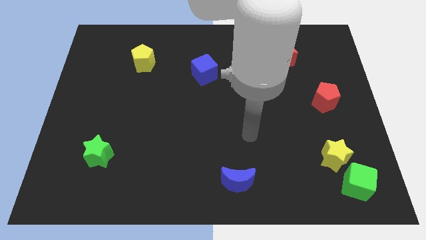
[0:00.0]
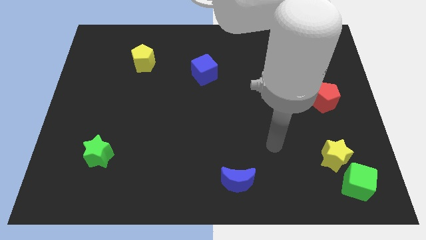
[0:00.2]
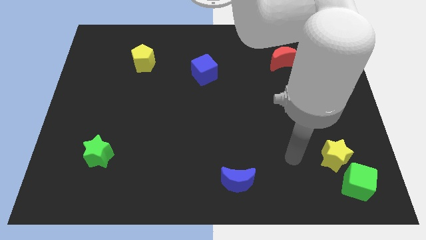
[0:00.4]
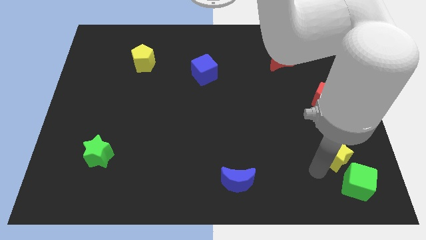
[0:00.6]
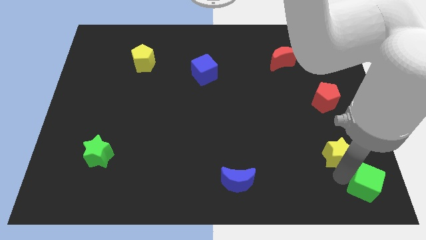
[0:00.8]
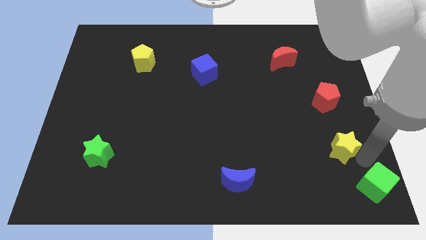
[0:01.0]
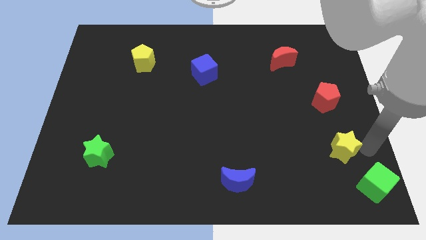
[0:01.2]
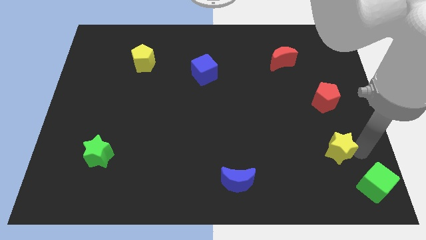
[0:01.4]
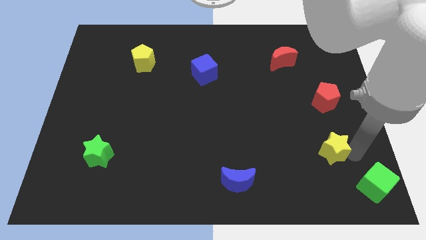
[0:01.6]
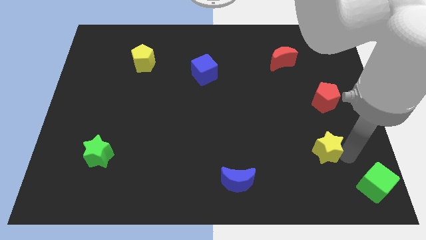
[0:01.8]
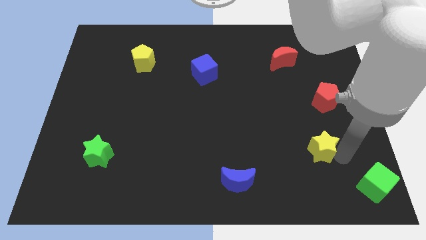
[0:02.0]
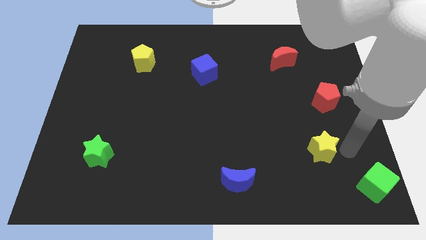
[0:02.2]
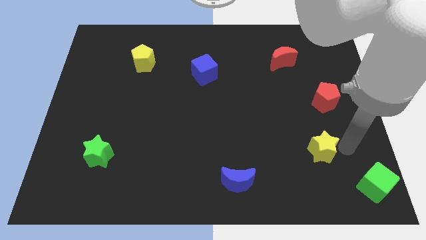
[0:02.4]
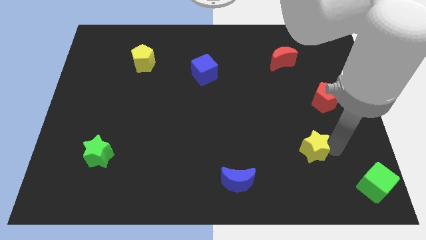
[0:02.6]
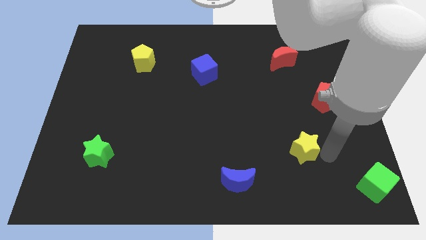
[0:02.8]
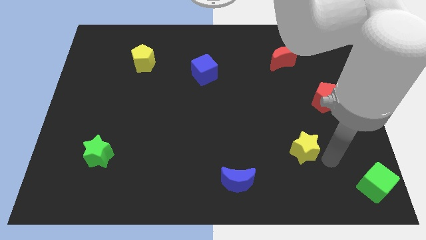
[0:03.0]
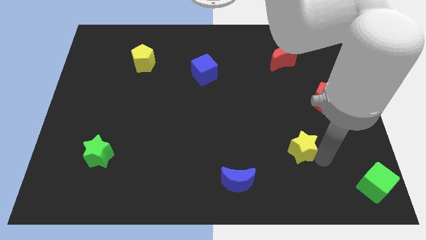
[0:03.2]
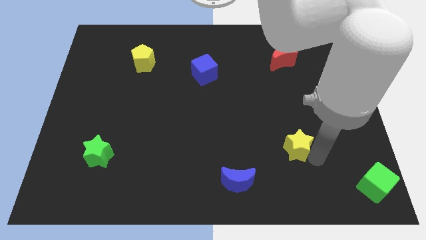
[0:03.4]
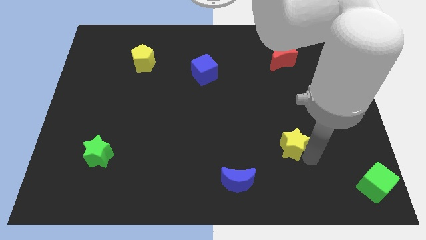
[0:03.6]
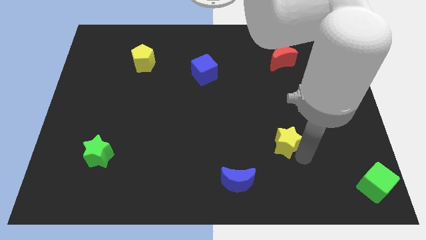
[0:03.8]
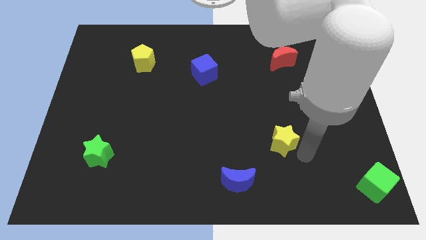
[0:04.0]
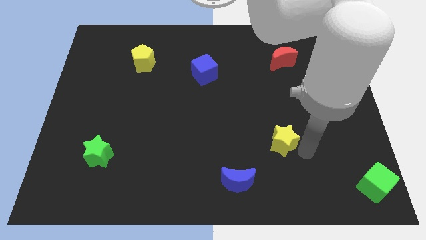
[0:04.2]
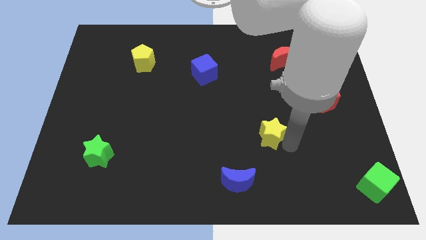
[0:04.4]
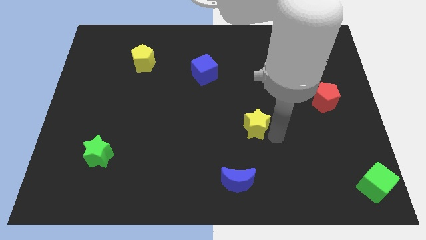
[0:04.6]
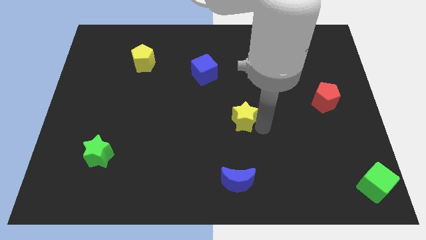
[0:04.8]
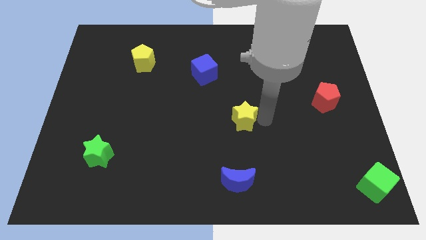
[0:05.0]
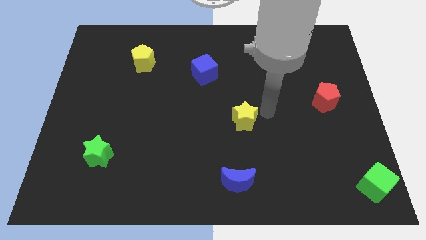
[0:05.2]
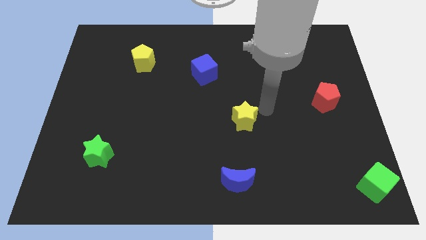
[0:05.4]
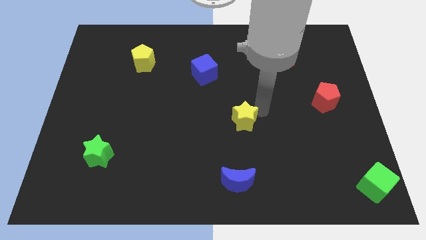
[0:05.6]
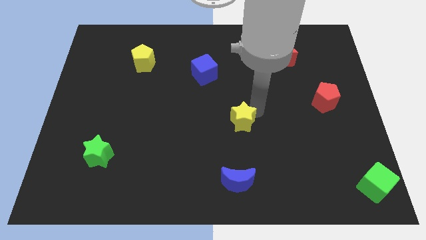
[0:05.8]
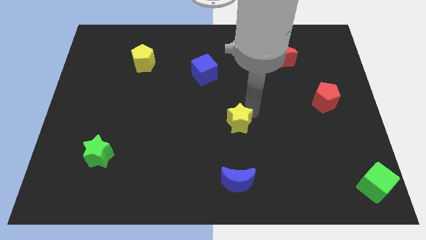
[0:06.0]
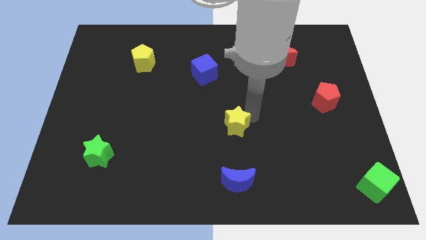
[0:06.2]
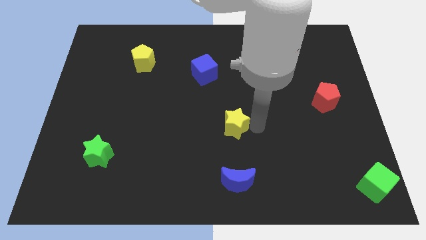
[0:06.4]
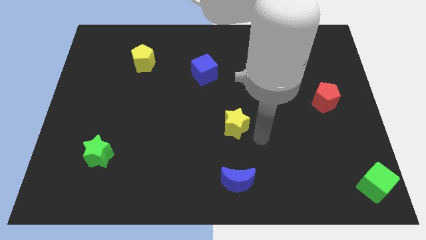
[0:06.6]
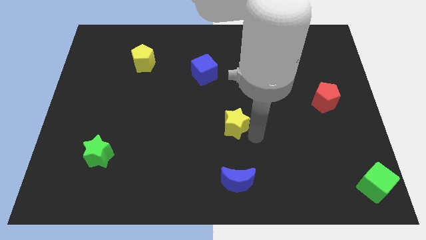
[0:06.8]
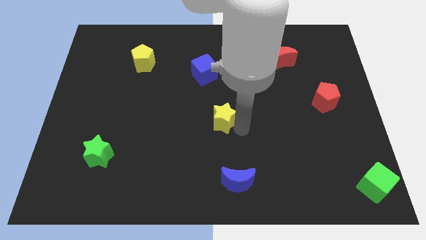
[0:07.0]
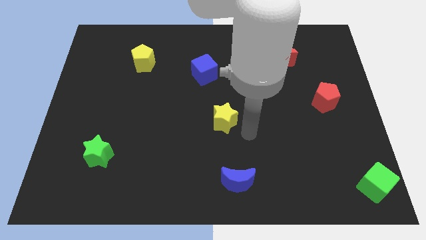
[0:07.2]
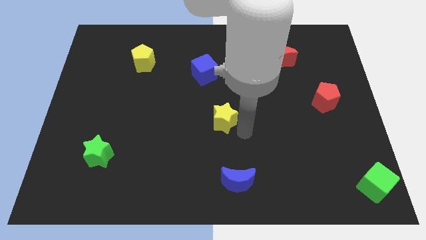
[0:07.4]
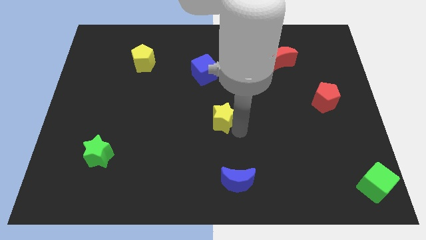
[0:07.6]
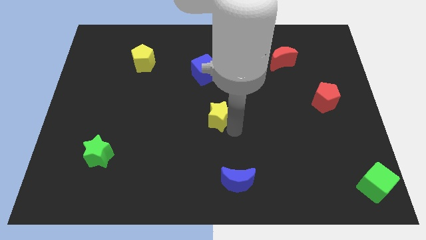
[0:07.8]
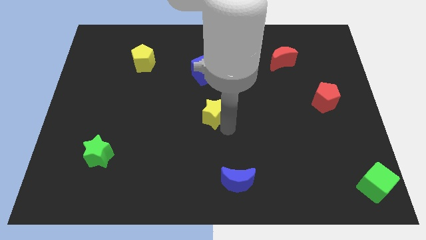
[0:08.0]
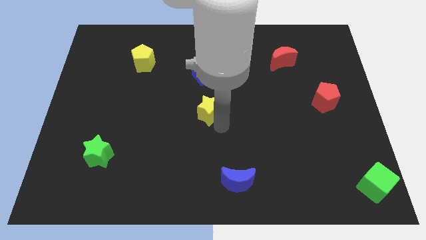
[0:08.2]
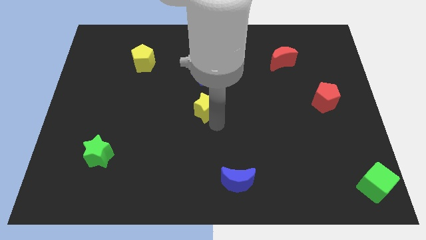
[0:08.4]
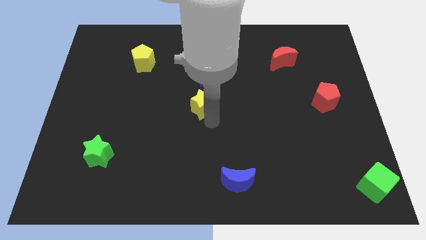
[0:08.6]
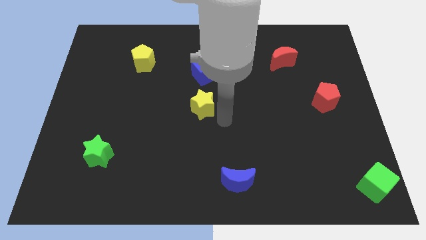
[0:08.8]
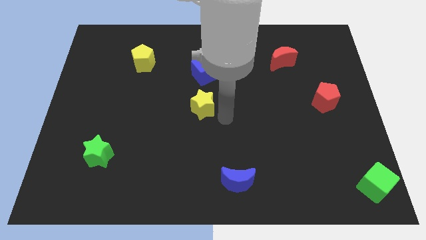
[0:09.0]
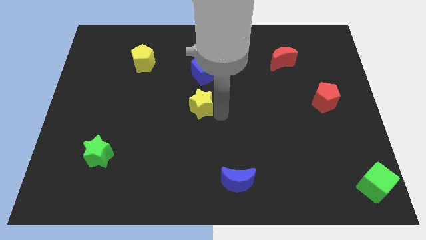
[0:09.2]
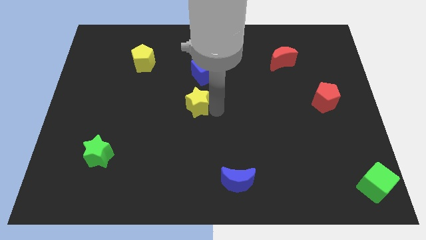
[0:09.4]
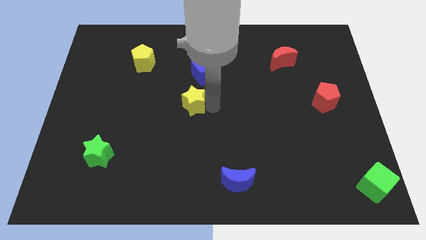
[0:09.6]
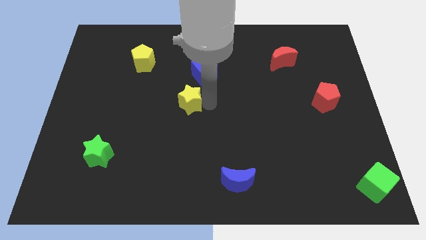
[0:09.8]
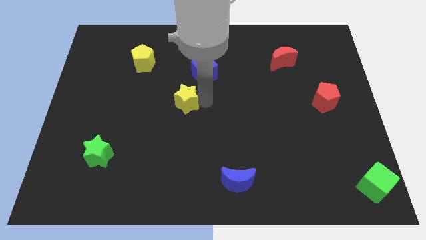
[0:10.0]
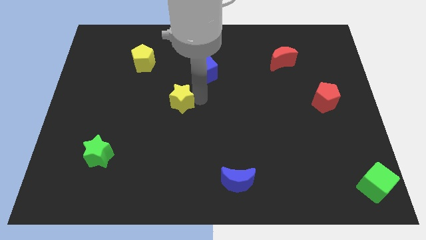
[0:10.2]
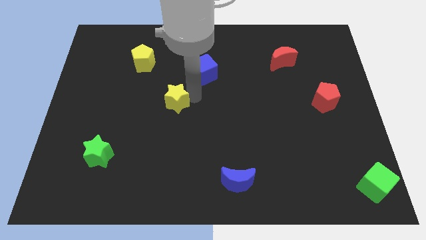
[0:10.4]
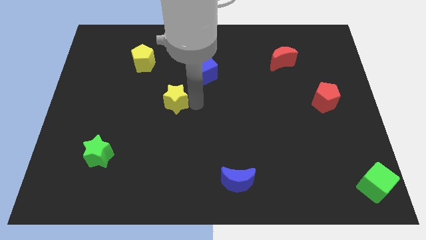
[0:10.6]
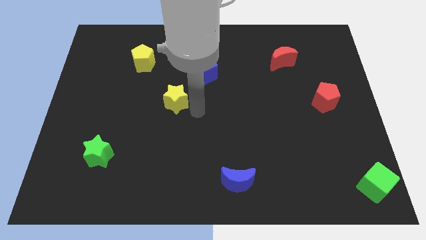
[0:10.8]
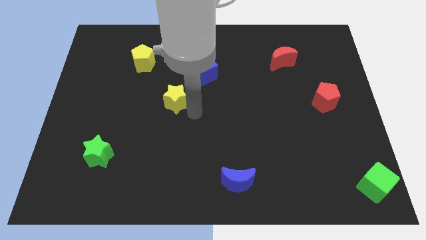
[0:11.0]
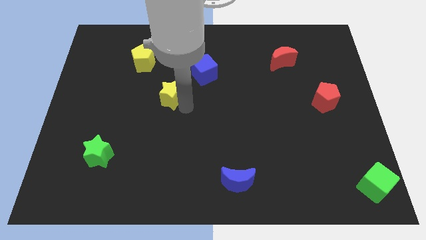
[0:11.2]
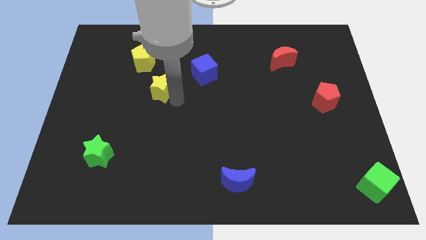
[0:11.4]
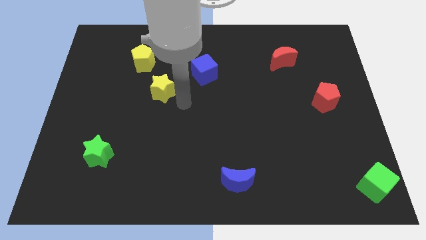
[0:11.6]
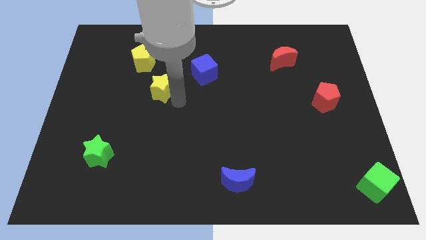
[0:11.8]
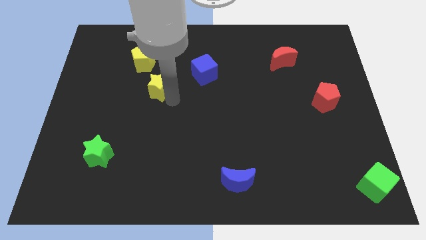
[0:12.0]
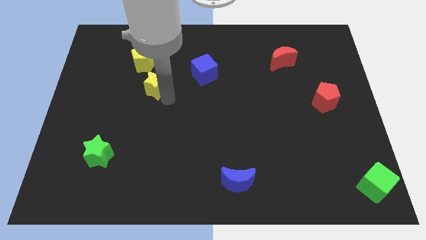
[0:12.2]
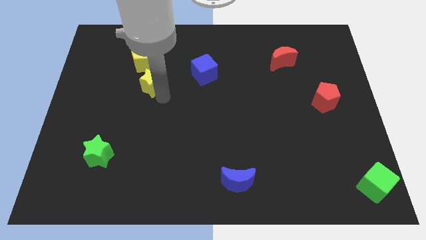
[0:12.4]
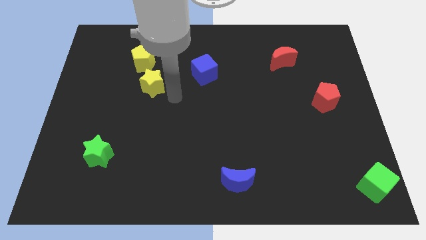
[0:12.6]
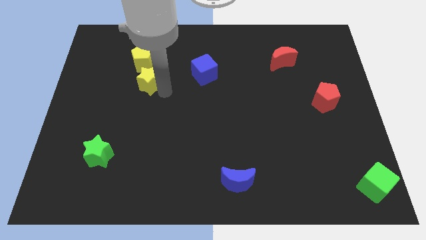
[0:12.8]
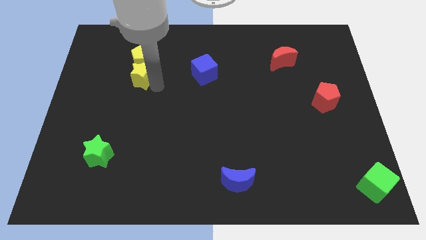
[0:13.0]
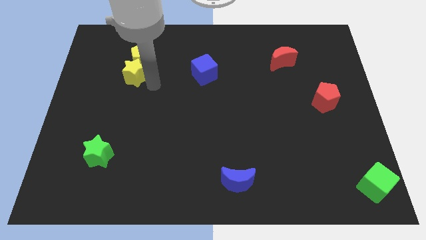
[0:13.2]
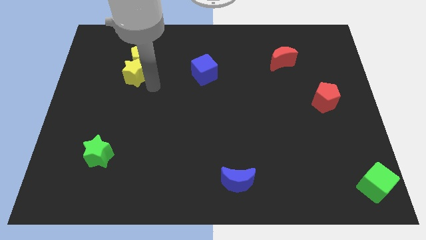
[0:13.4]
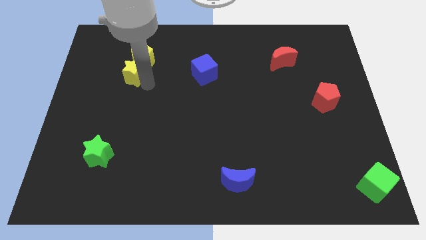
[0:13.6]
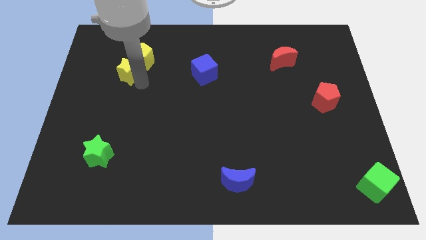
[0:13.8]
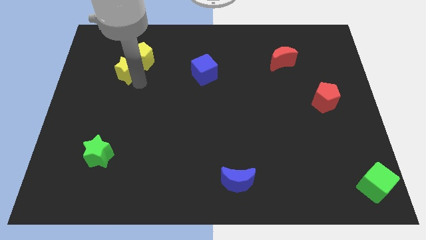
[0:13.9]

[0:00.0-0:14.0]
push the yellow star to the left of the yellow pentagon

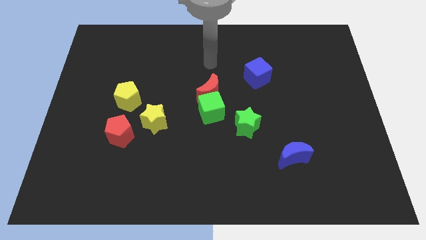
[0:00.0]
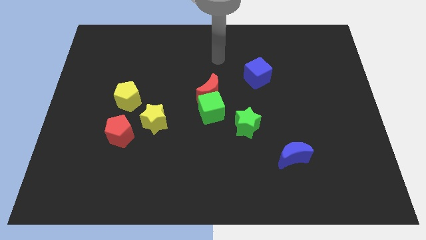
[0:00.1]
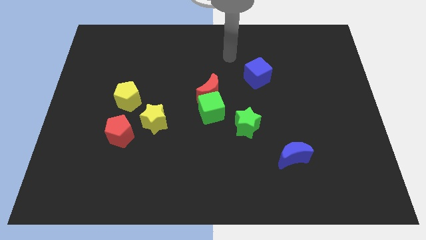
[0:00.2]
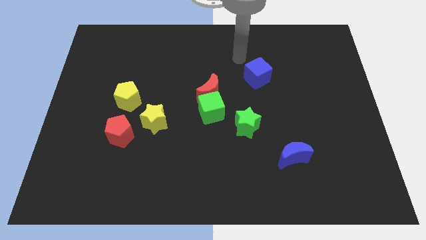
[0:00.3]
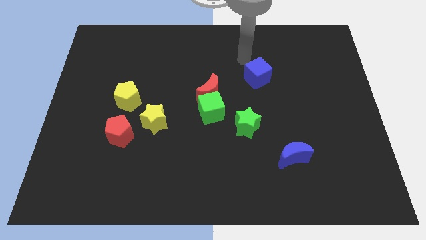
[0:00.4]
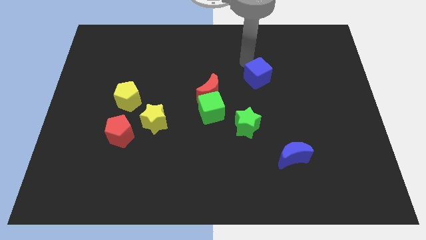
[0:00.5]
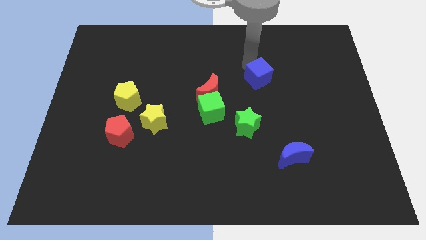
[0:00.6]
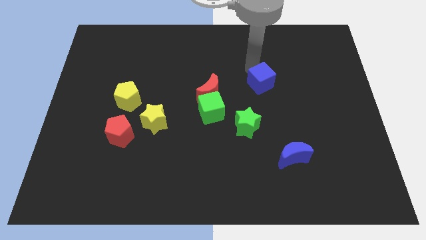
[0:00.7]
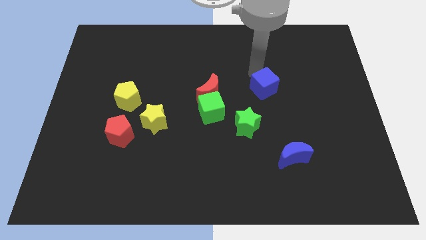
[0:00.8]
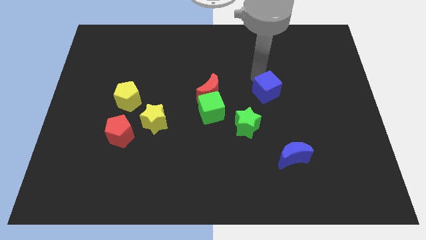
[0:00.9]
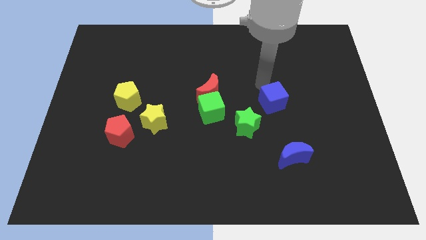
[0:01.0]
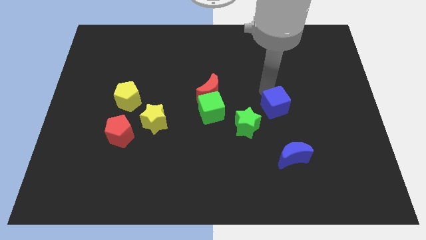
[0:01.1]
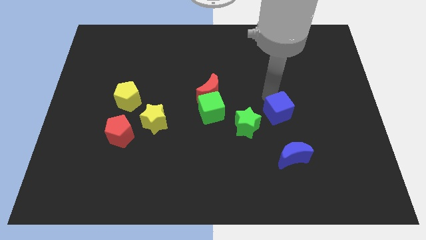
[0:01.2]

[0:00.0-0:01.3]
slide the blue cube to the right of the green star
